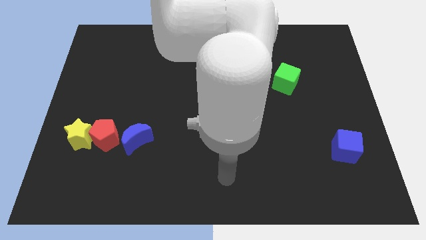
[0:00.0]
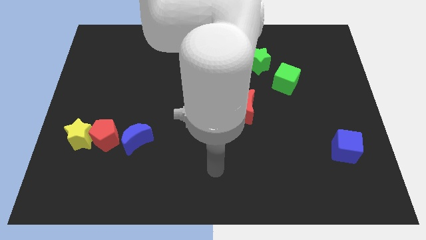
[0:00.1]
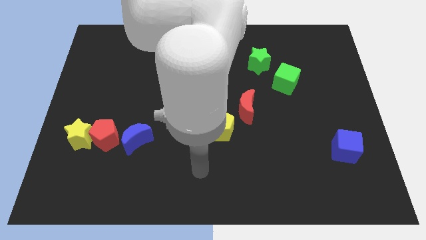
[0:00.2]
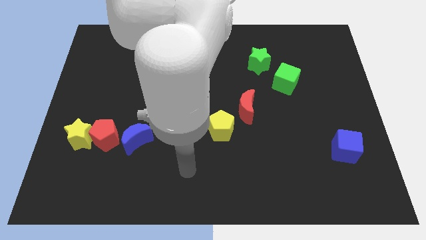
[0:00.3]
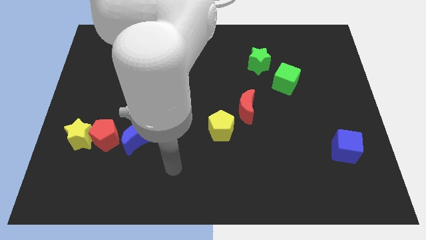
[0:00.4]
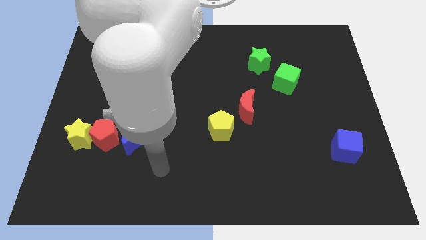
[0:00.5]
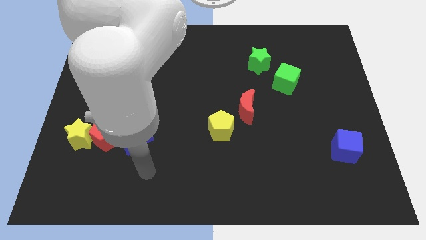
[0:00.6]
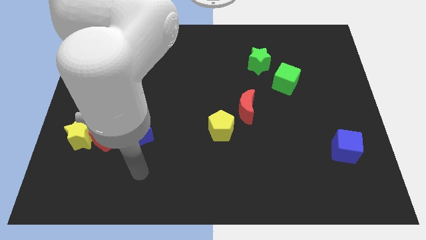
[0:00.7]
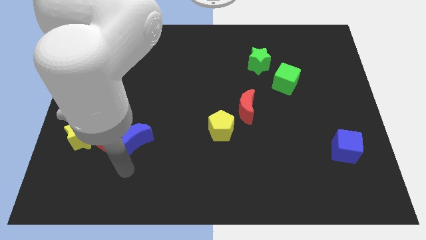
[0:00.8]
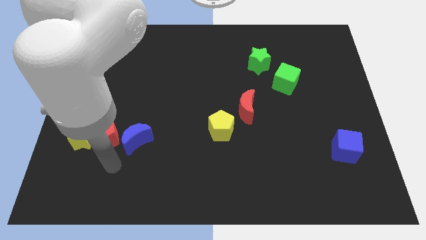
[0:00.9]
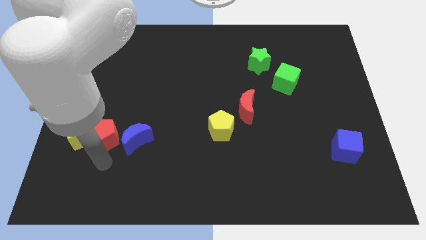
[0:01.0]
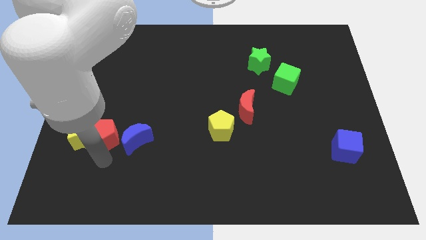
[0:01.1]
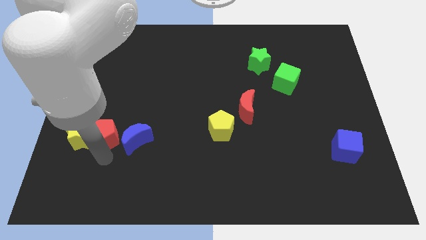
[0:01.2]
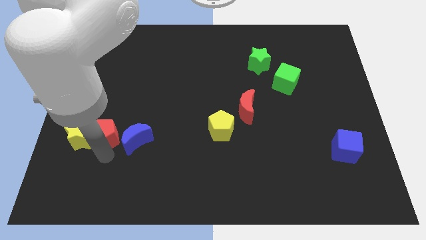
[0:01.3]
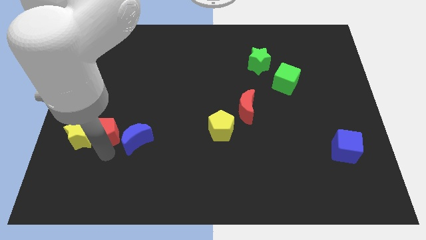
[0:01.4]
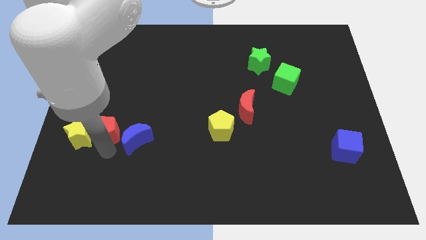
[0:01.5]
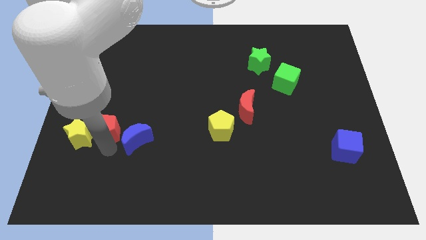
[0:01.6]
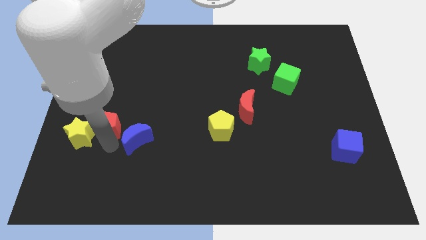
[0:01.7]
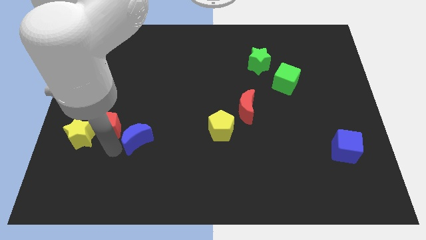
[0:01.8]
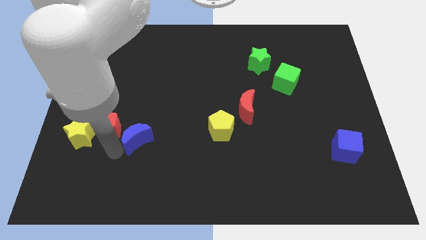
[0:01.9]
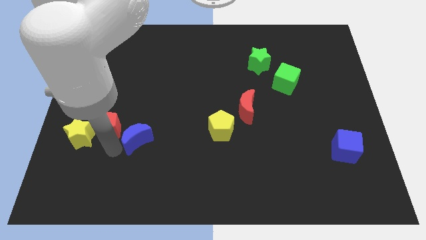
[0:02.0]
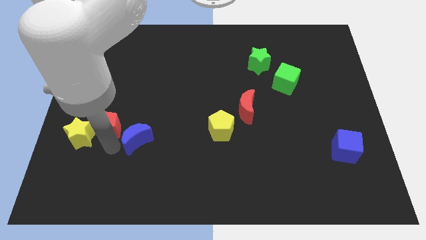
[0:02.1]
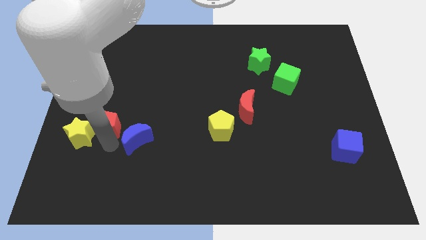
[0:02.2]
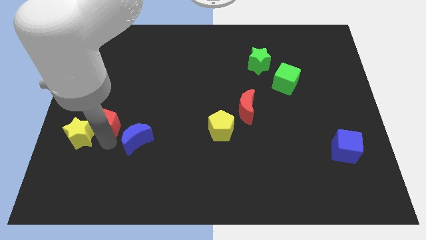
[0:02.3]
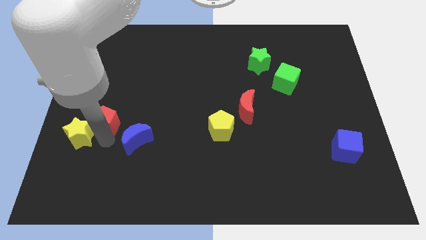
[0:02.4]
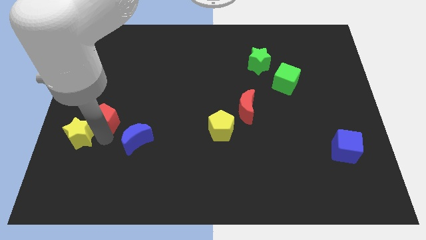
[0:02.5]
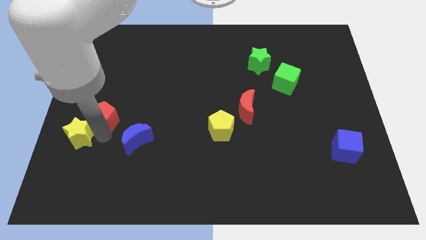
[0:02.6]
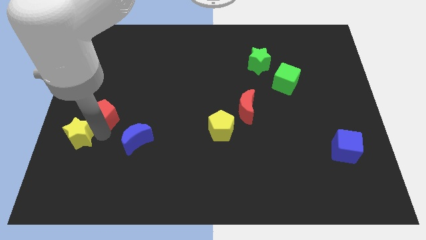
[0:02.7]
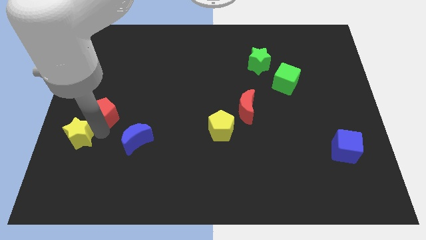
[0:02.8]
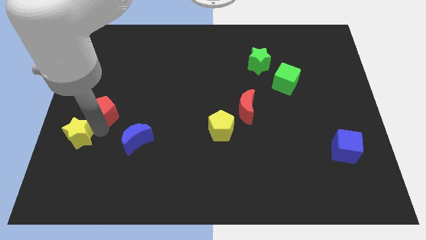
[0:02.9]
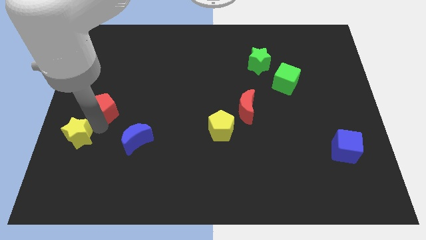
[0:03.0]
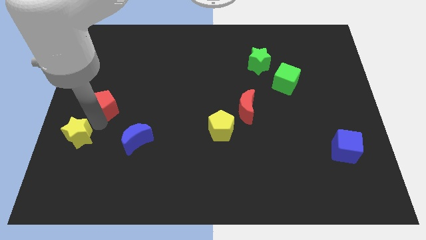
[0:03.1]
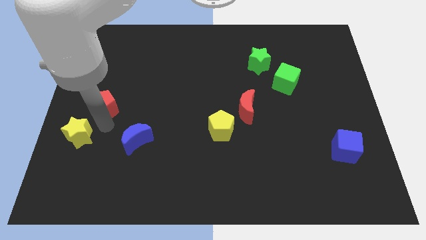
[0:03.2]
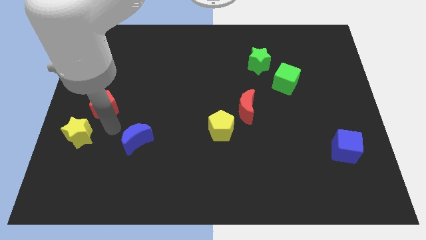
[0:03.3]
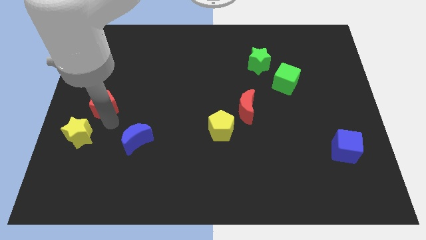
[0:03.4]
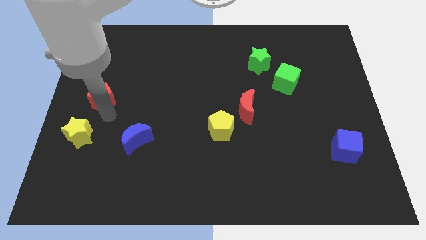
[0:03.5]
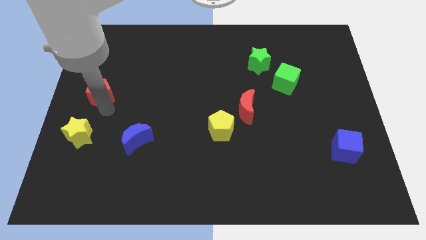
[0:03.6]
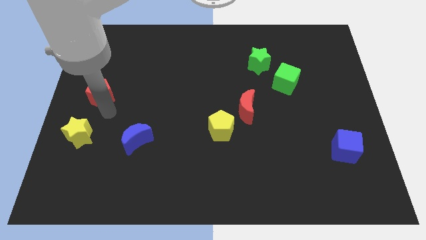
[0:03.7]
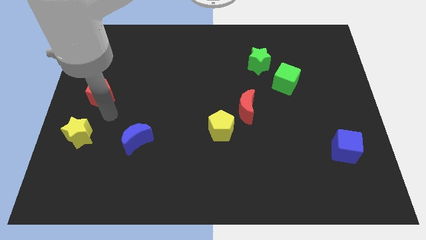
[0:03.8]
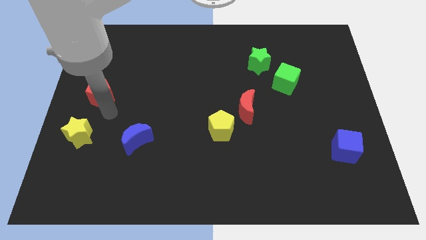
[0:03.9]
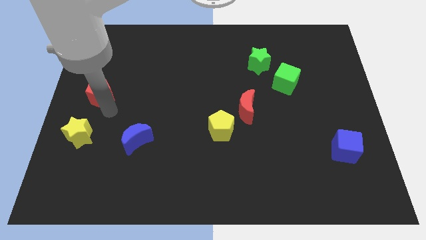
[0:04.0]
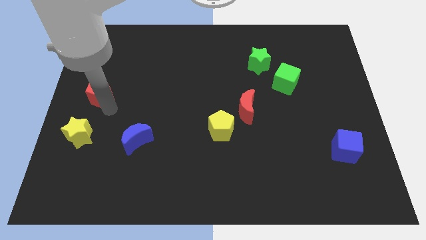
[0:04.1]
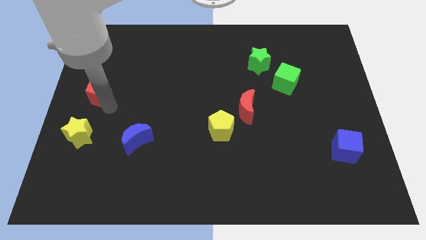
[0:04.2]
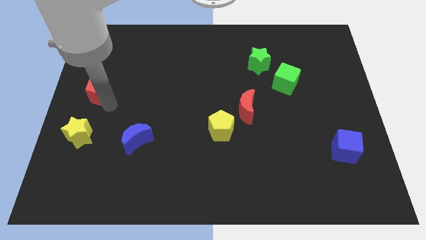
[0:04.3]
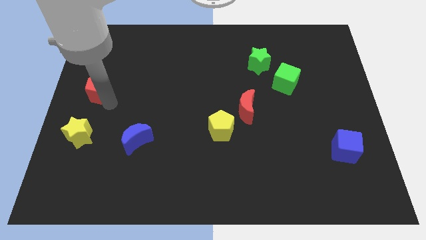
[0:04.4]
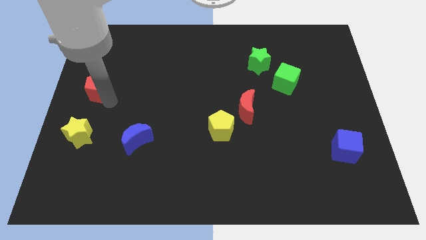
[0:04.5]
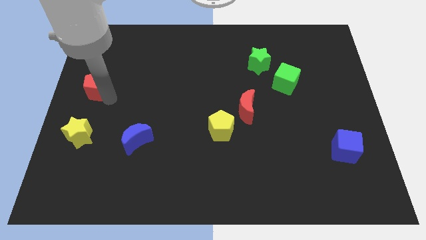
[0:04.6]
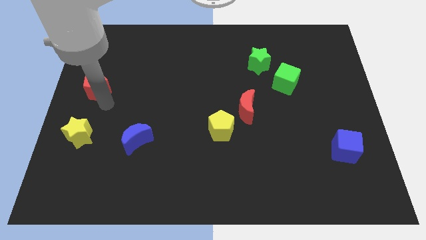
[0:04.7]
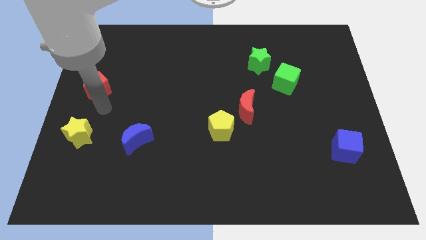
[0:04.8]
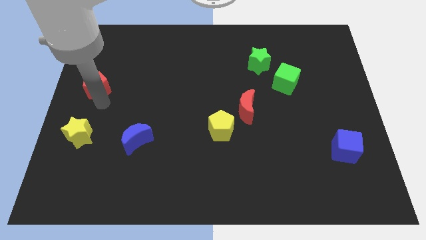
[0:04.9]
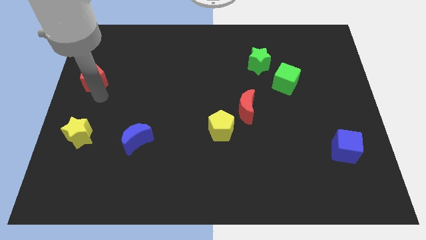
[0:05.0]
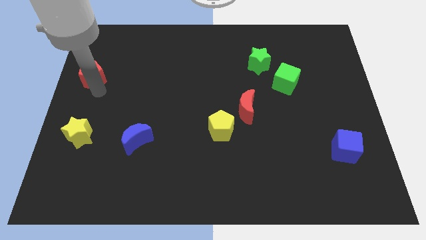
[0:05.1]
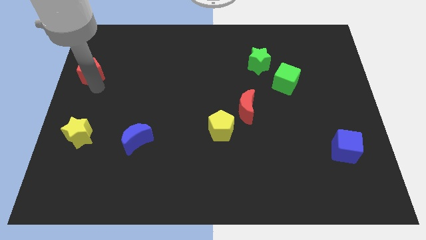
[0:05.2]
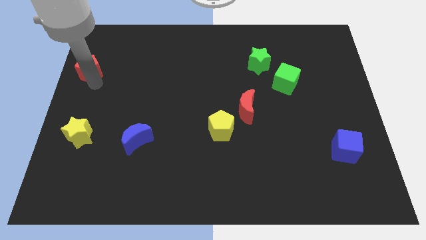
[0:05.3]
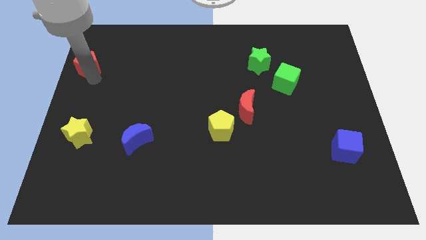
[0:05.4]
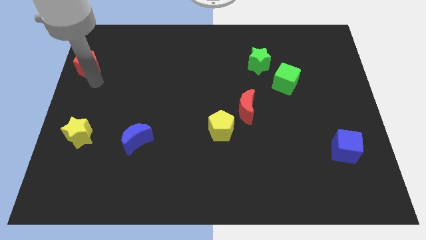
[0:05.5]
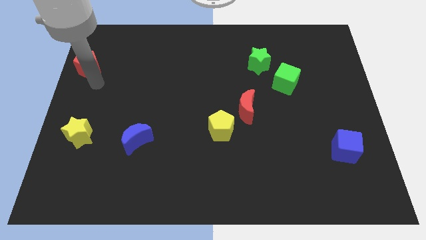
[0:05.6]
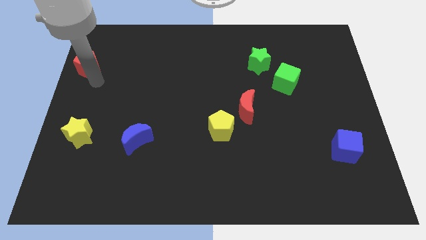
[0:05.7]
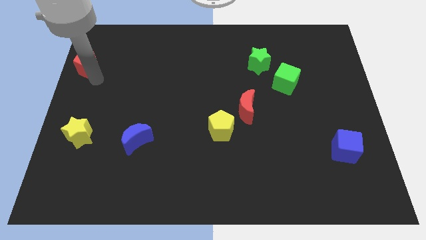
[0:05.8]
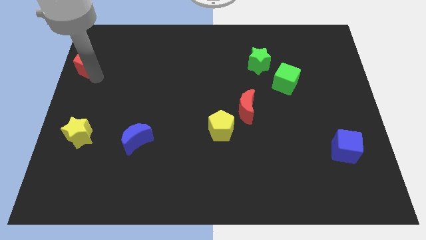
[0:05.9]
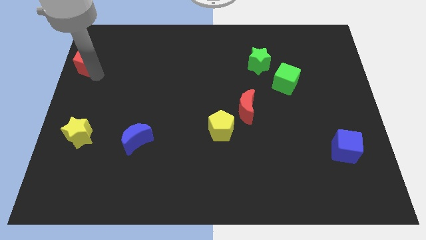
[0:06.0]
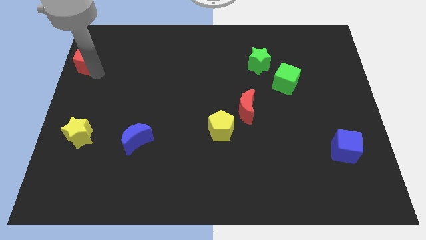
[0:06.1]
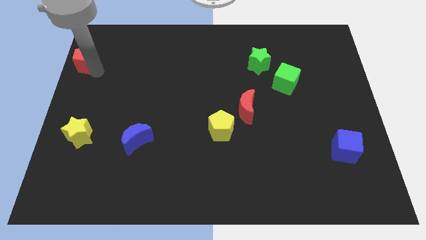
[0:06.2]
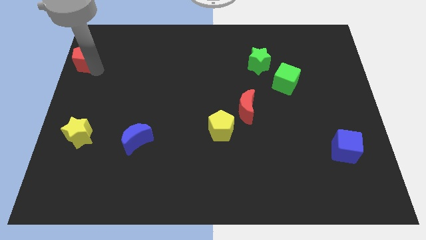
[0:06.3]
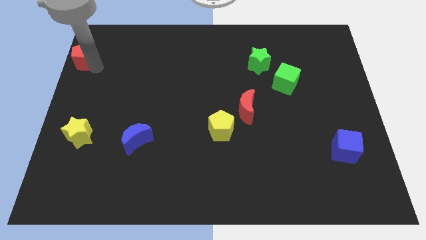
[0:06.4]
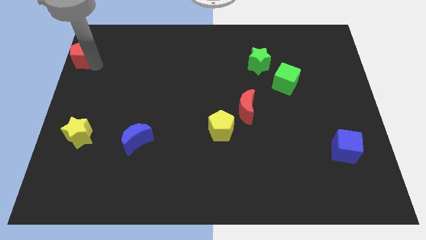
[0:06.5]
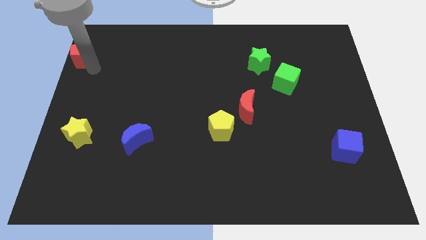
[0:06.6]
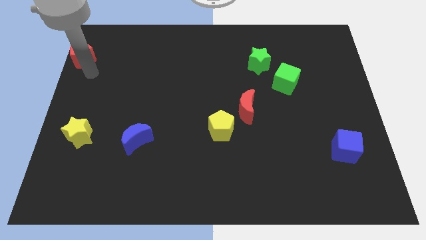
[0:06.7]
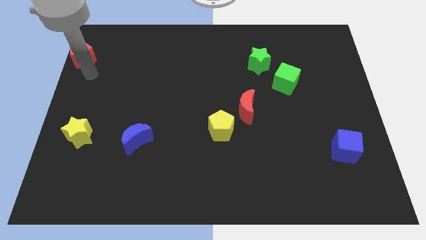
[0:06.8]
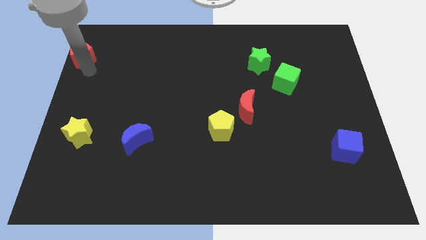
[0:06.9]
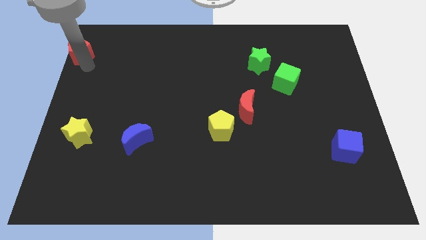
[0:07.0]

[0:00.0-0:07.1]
push the red pentagon to the top left corner
